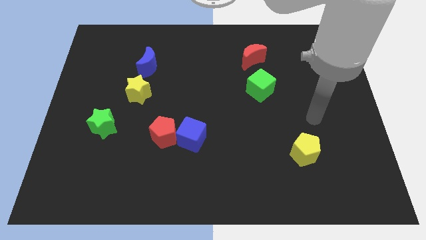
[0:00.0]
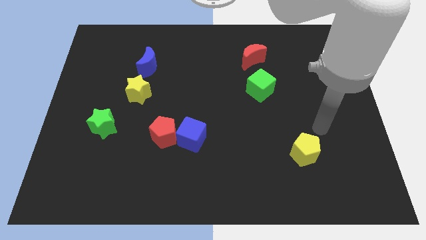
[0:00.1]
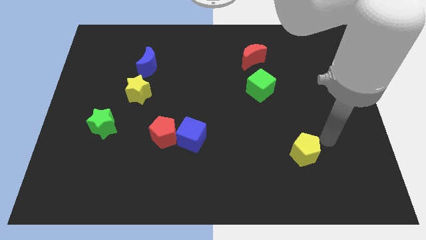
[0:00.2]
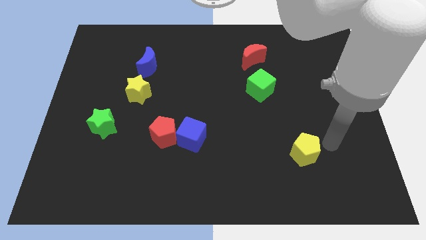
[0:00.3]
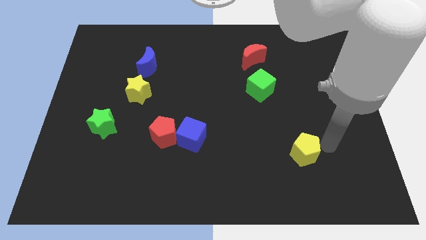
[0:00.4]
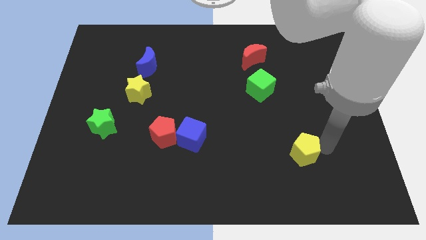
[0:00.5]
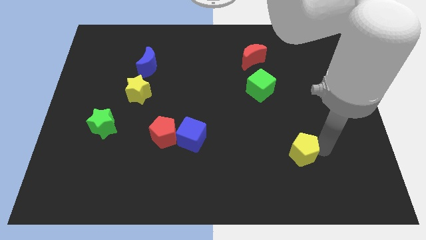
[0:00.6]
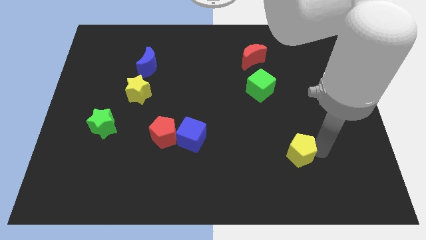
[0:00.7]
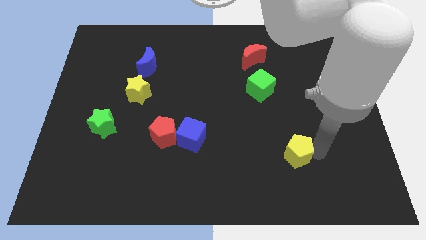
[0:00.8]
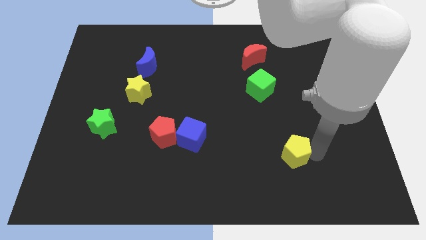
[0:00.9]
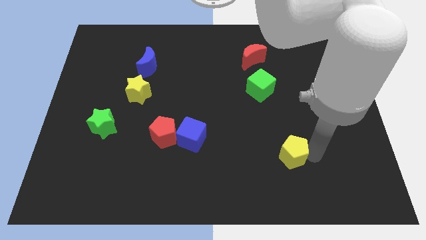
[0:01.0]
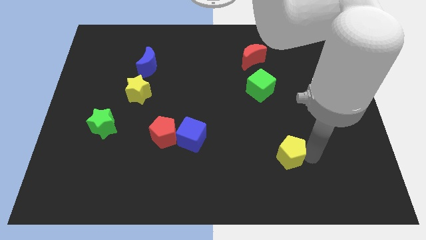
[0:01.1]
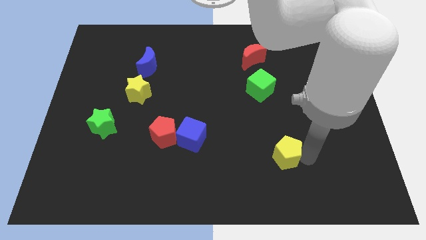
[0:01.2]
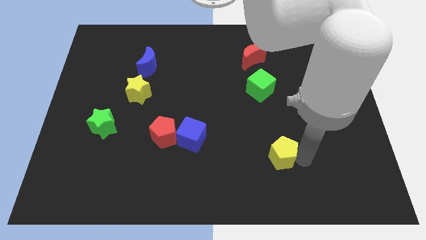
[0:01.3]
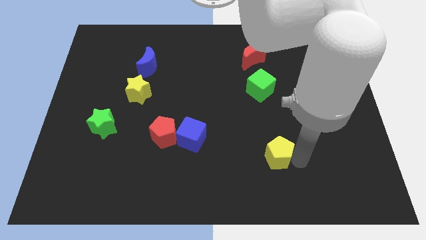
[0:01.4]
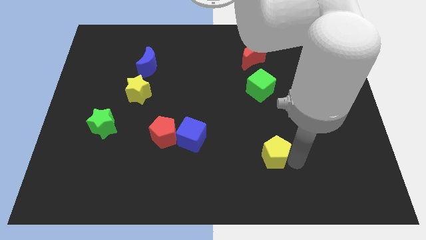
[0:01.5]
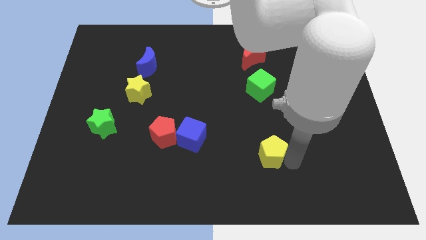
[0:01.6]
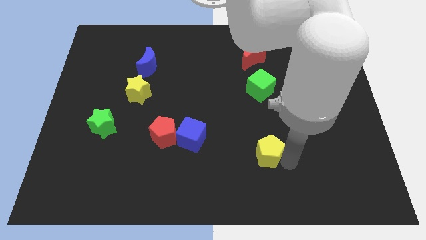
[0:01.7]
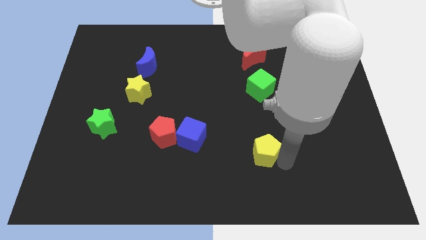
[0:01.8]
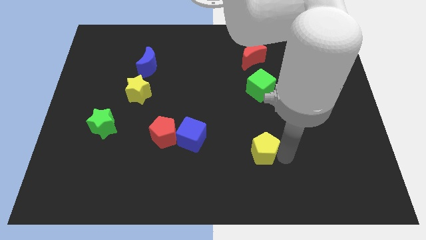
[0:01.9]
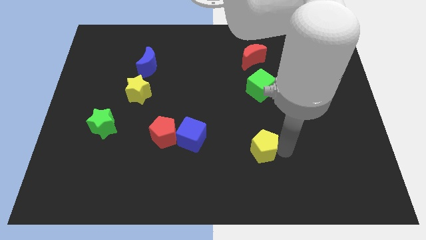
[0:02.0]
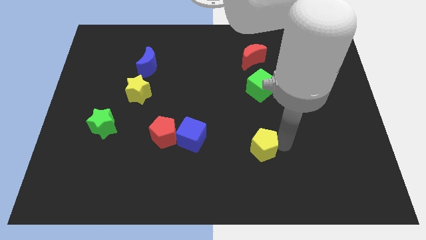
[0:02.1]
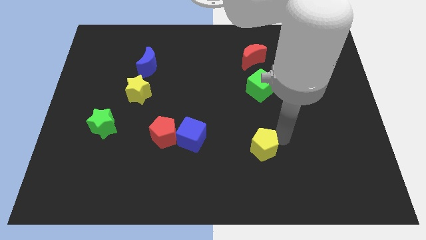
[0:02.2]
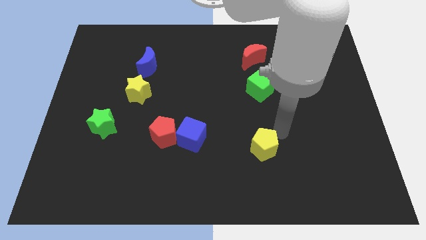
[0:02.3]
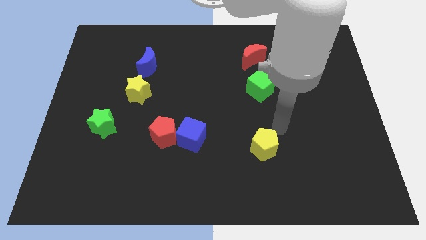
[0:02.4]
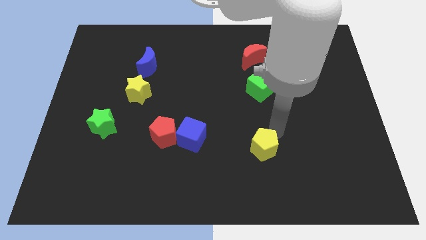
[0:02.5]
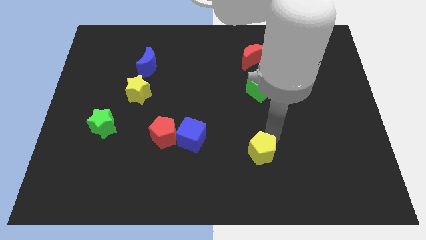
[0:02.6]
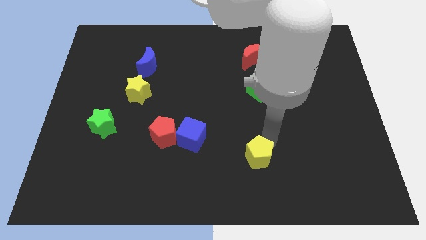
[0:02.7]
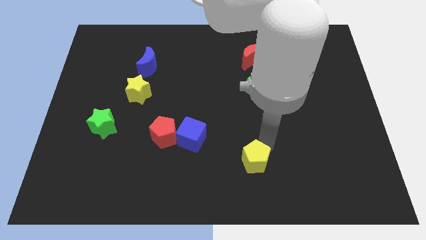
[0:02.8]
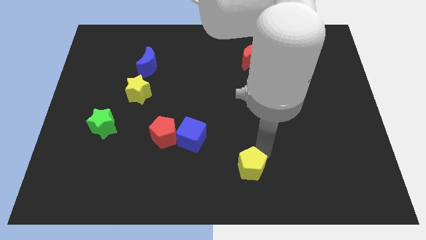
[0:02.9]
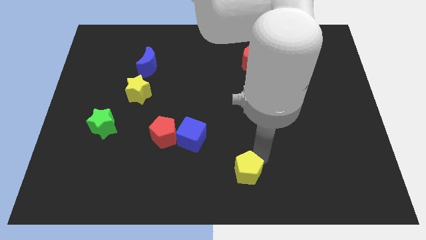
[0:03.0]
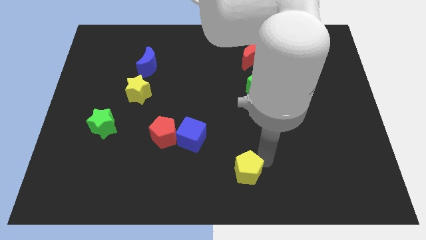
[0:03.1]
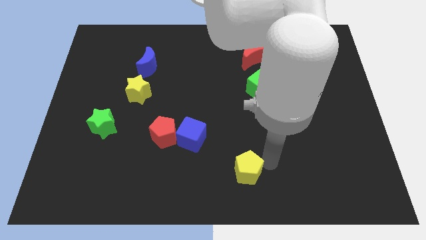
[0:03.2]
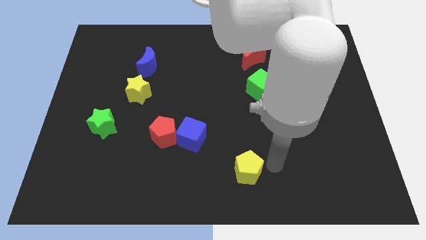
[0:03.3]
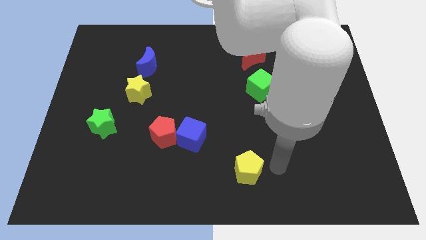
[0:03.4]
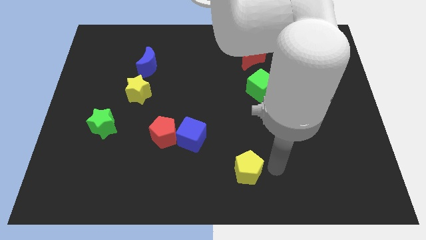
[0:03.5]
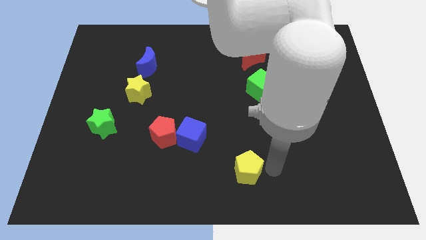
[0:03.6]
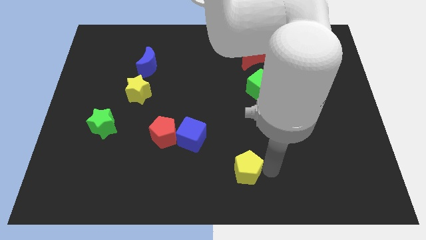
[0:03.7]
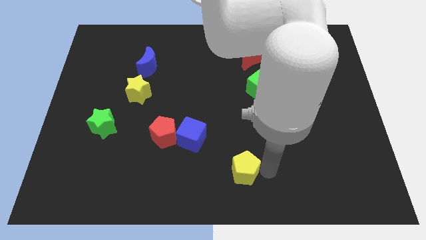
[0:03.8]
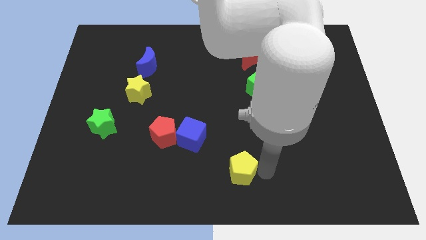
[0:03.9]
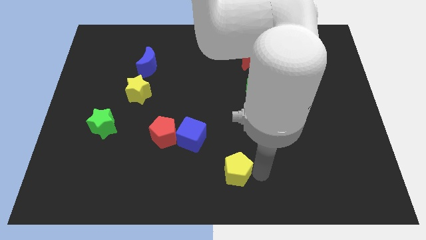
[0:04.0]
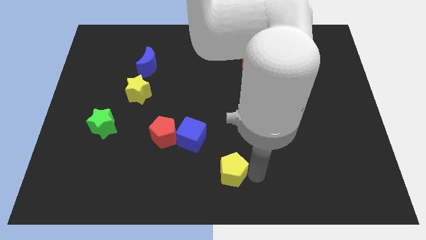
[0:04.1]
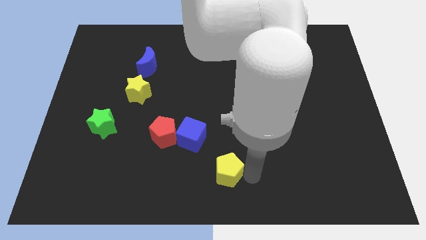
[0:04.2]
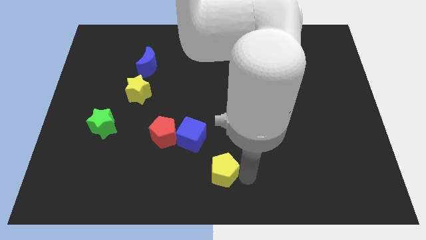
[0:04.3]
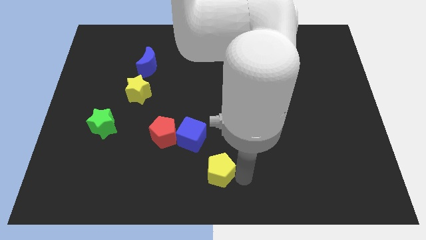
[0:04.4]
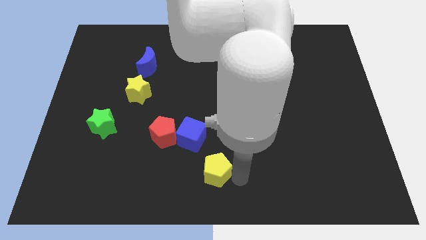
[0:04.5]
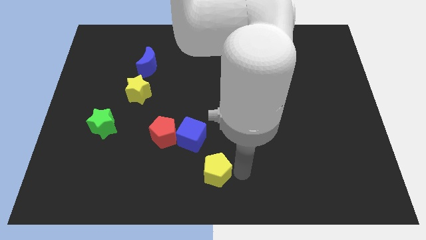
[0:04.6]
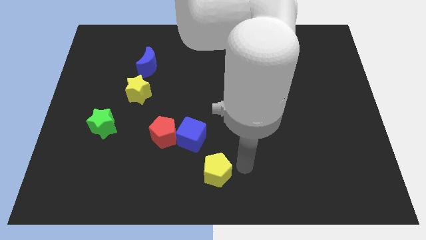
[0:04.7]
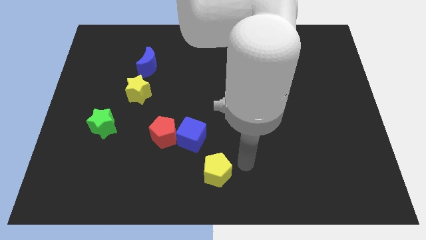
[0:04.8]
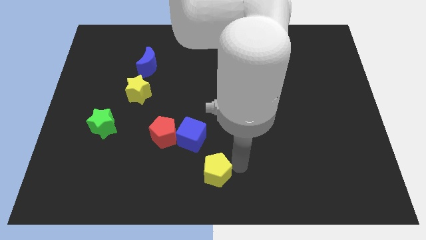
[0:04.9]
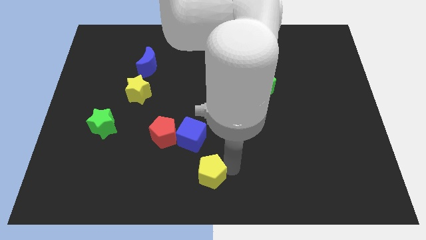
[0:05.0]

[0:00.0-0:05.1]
move the yellow pentagon to the bottom of the blue cube

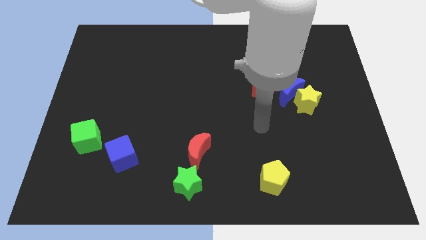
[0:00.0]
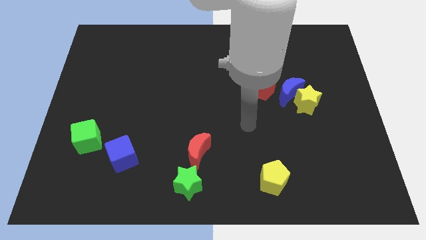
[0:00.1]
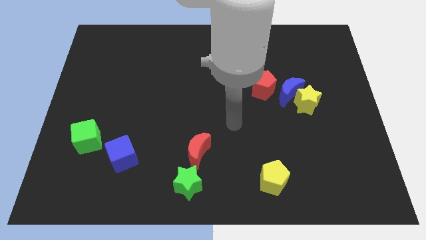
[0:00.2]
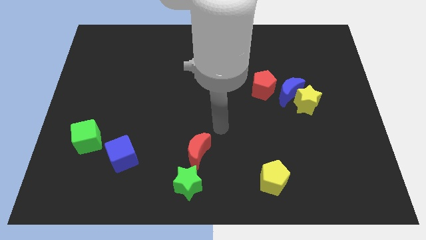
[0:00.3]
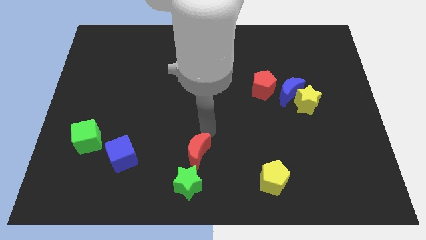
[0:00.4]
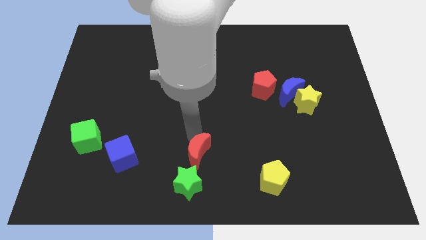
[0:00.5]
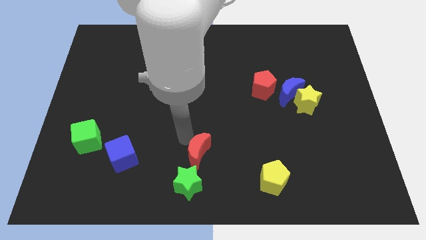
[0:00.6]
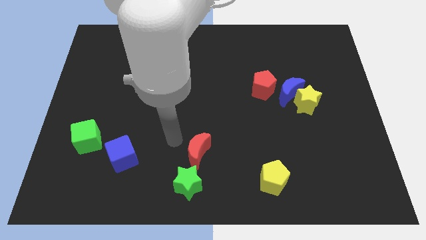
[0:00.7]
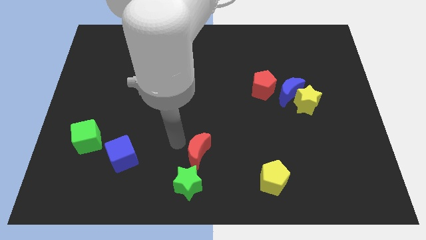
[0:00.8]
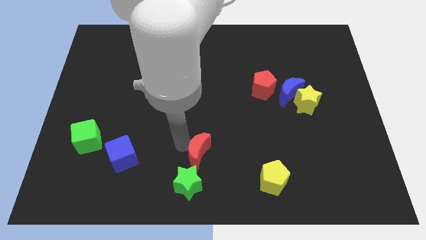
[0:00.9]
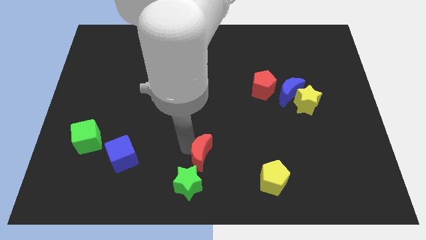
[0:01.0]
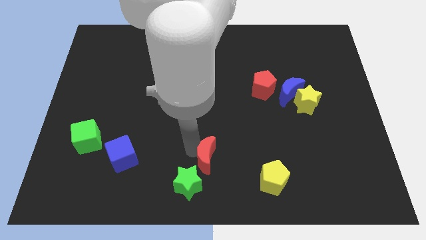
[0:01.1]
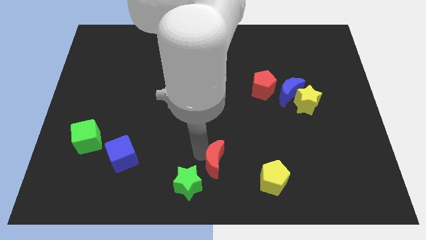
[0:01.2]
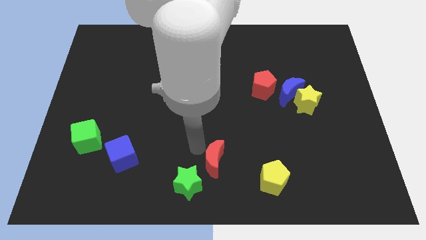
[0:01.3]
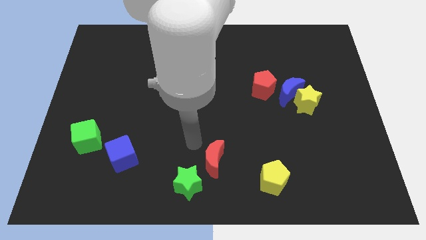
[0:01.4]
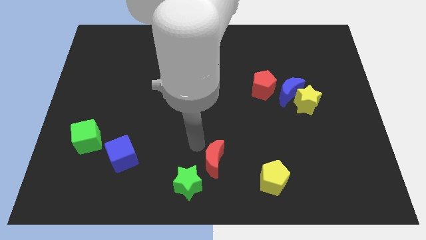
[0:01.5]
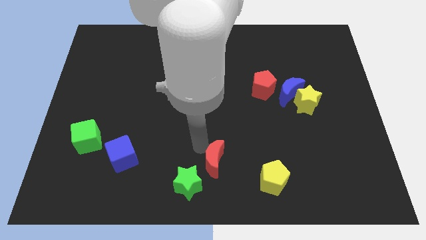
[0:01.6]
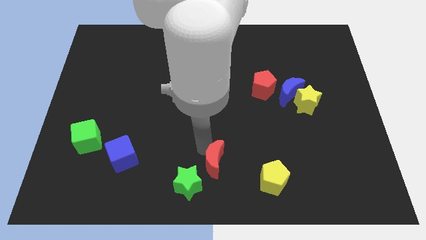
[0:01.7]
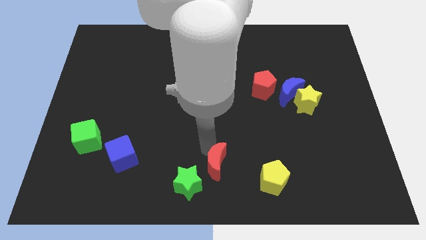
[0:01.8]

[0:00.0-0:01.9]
move the red moon just right of the green star
